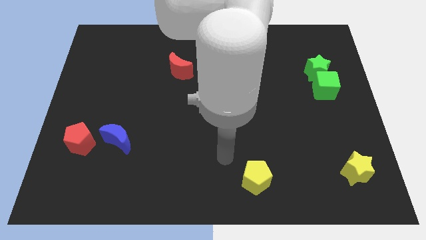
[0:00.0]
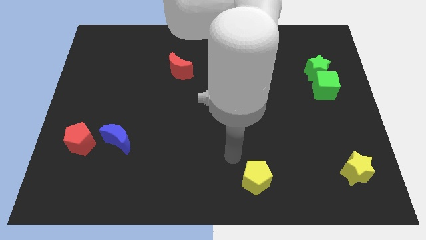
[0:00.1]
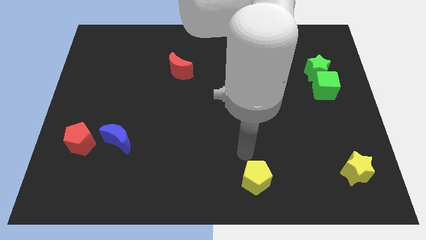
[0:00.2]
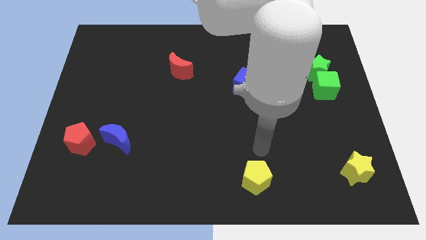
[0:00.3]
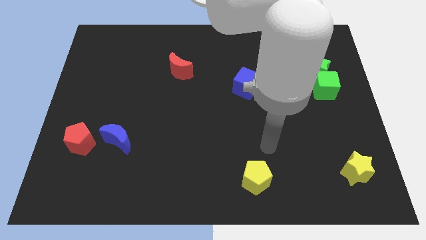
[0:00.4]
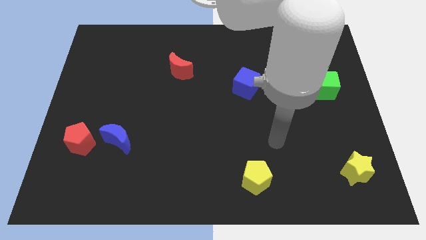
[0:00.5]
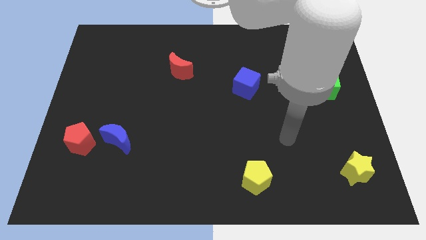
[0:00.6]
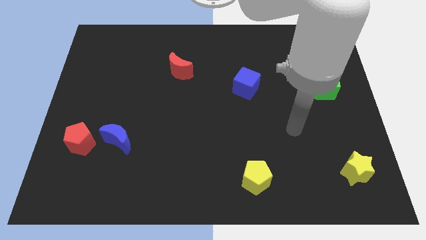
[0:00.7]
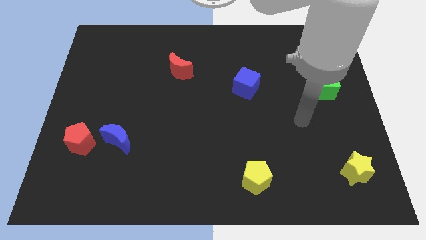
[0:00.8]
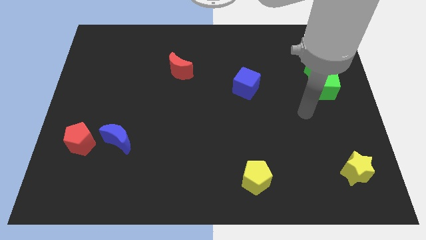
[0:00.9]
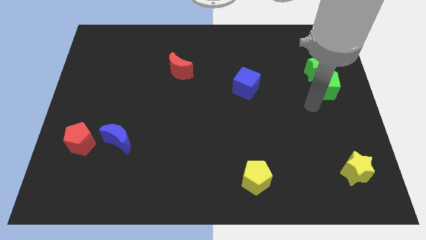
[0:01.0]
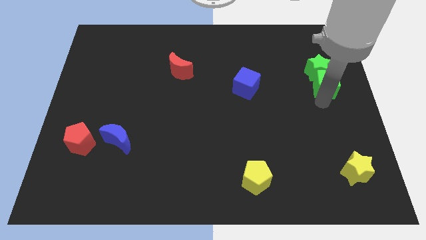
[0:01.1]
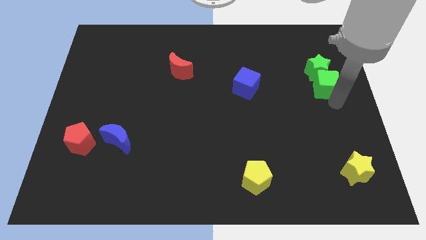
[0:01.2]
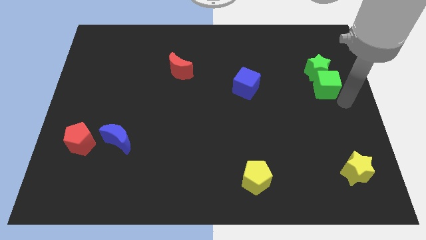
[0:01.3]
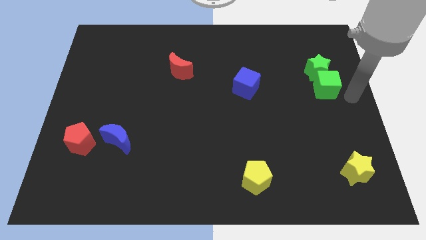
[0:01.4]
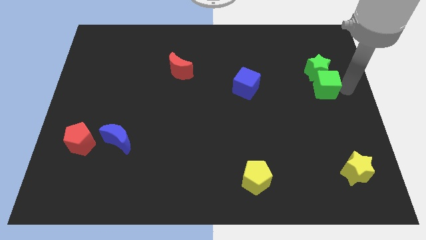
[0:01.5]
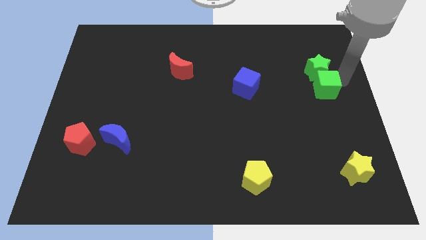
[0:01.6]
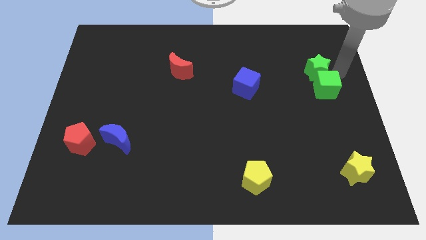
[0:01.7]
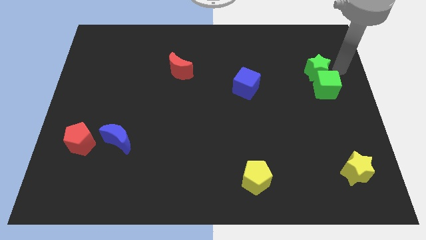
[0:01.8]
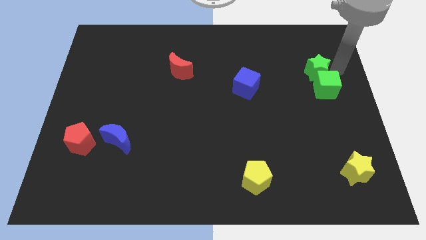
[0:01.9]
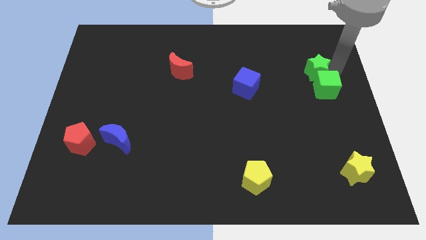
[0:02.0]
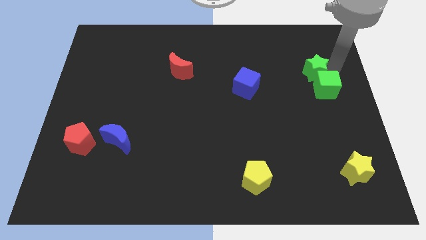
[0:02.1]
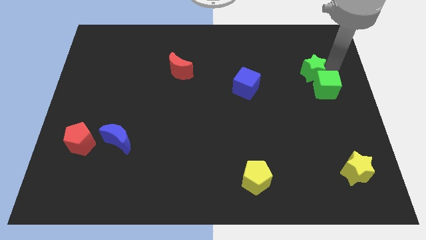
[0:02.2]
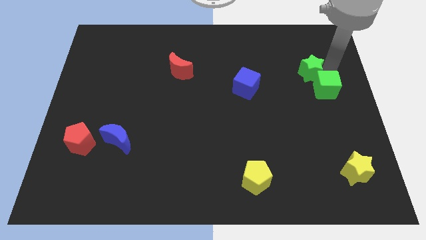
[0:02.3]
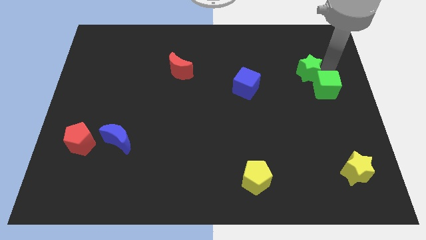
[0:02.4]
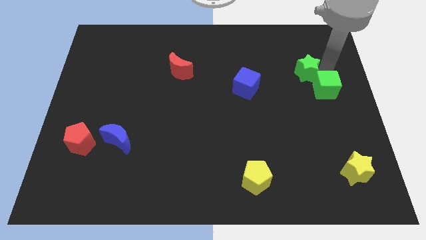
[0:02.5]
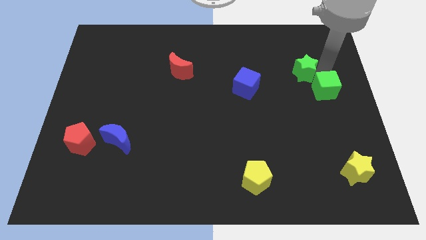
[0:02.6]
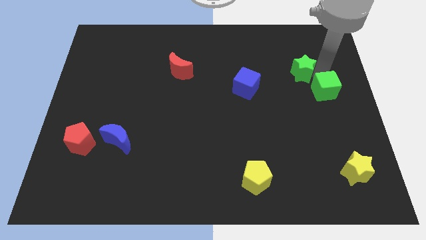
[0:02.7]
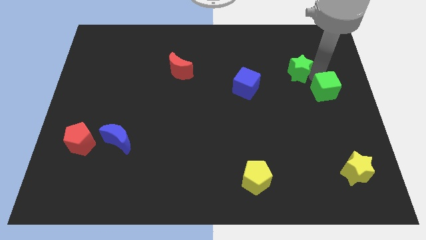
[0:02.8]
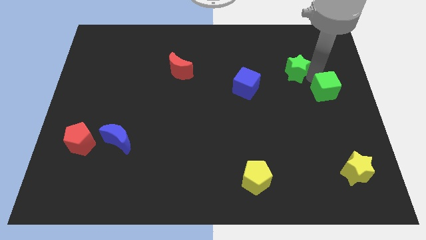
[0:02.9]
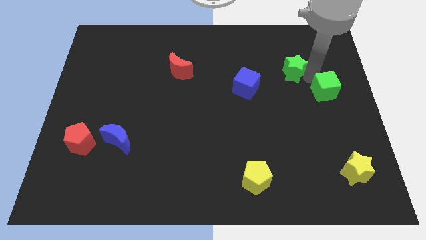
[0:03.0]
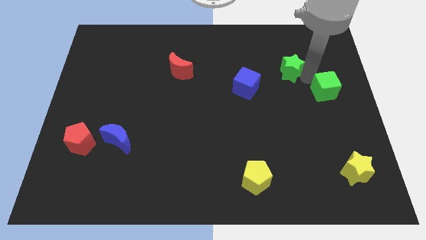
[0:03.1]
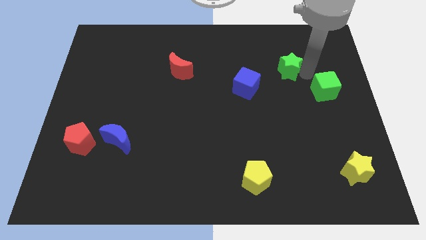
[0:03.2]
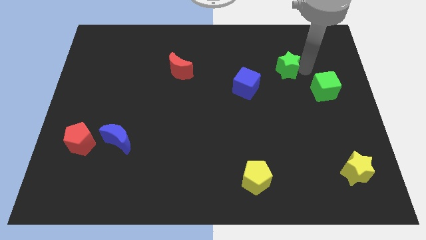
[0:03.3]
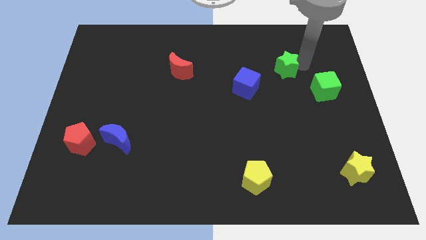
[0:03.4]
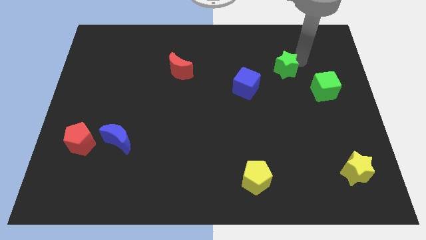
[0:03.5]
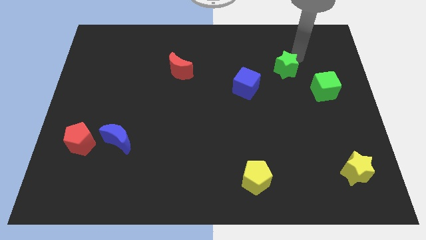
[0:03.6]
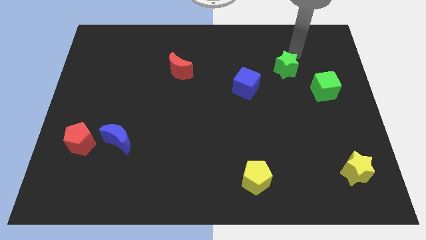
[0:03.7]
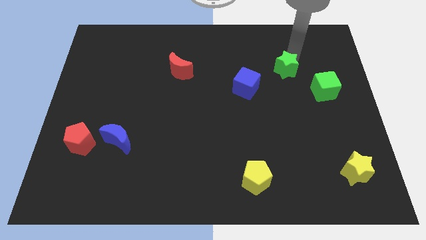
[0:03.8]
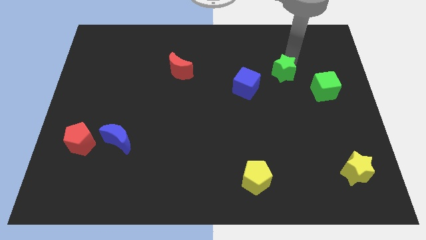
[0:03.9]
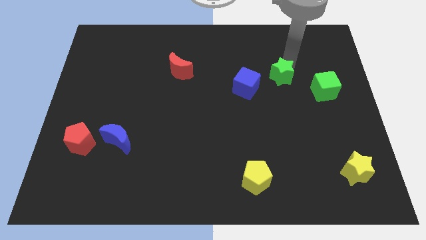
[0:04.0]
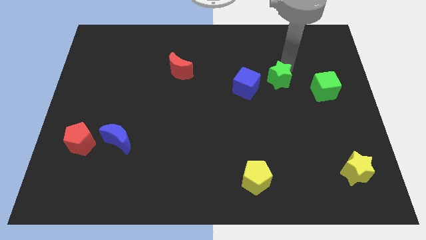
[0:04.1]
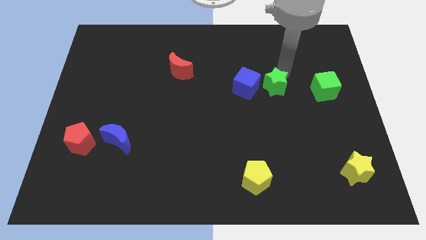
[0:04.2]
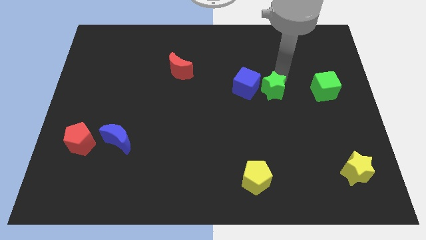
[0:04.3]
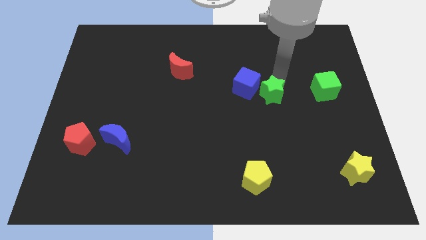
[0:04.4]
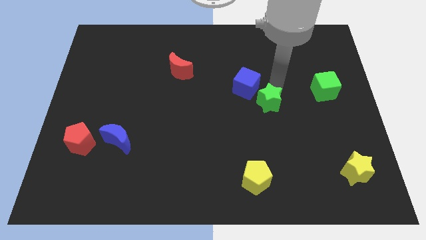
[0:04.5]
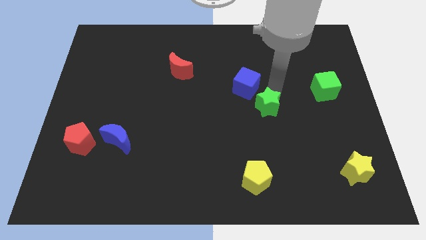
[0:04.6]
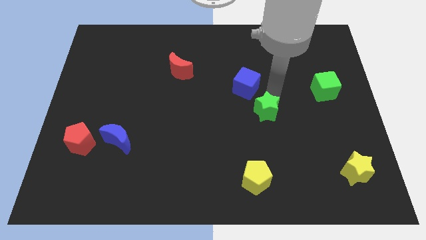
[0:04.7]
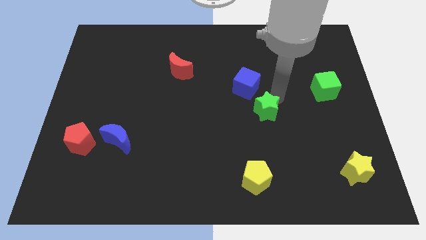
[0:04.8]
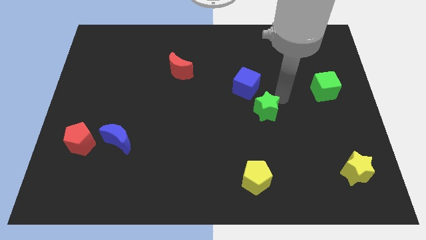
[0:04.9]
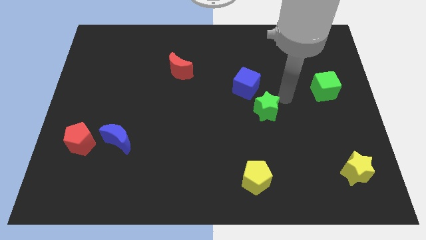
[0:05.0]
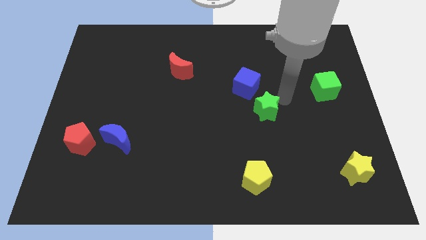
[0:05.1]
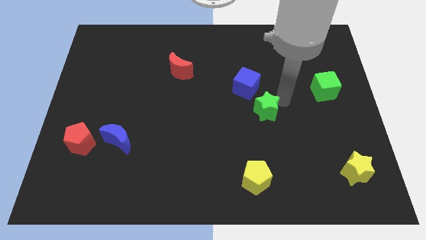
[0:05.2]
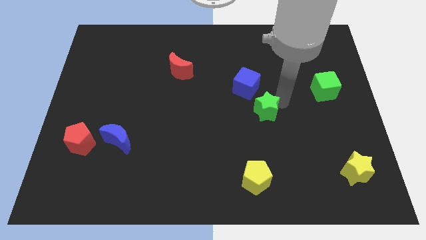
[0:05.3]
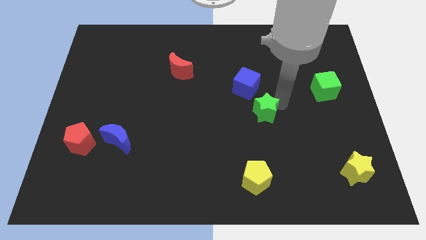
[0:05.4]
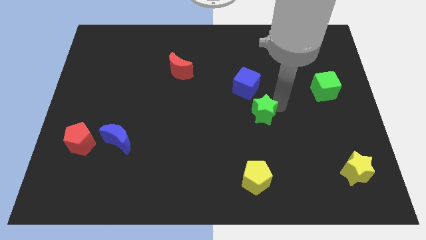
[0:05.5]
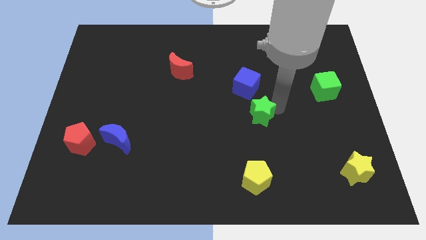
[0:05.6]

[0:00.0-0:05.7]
slide the green star down and then to the left

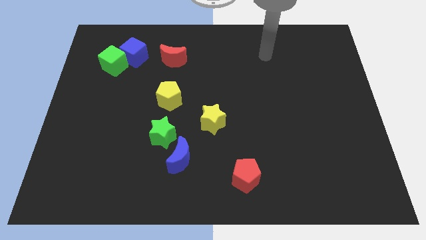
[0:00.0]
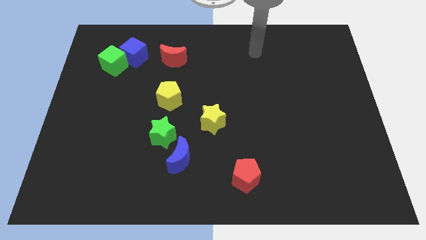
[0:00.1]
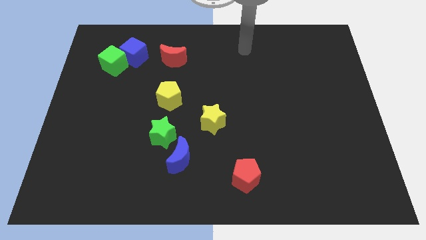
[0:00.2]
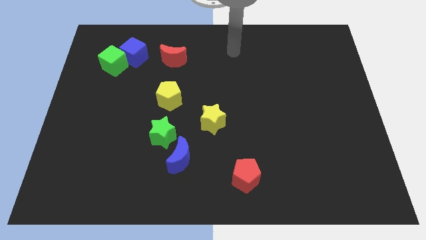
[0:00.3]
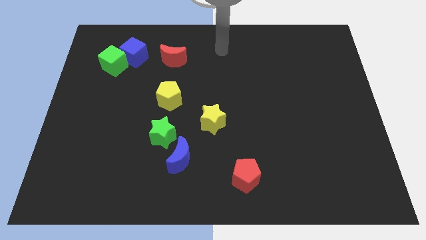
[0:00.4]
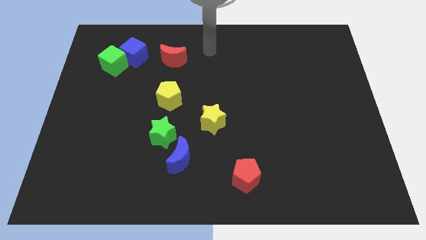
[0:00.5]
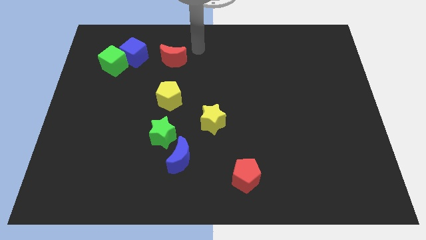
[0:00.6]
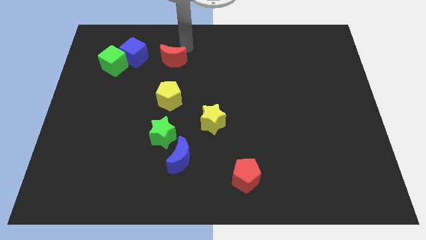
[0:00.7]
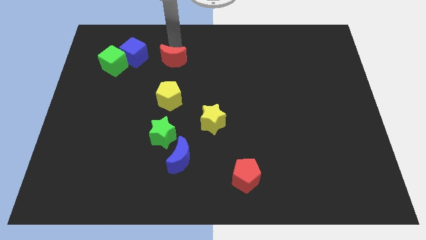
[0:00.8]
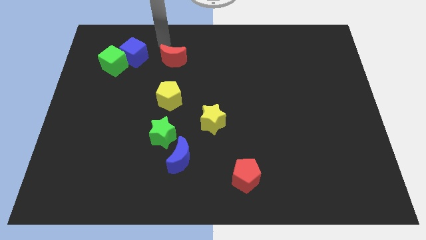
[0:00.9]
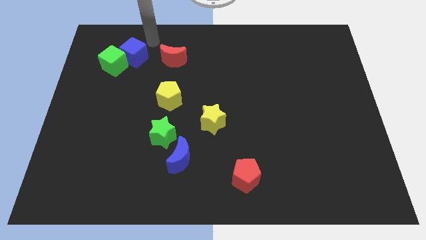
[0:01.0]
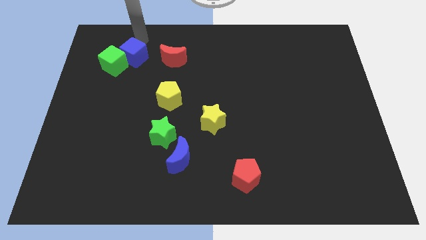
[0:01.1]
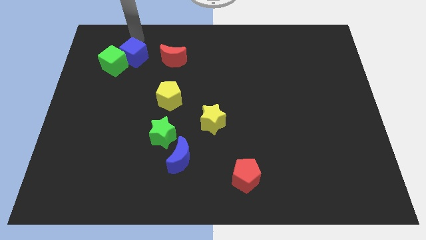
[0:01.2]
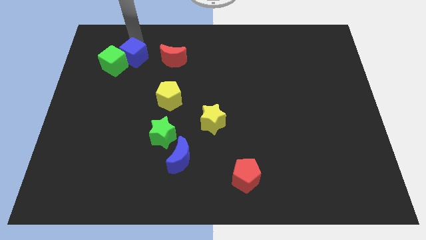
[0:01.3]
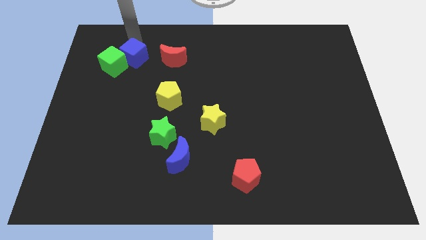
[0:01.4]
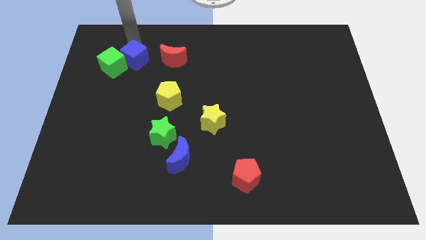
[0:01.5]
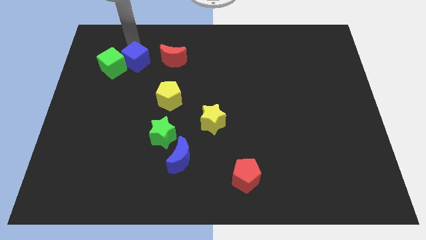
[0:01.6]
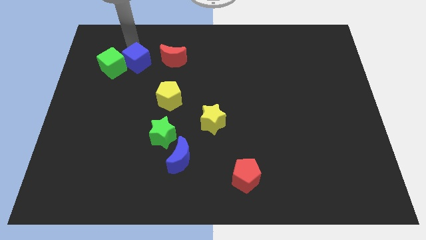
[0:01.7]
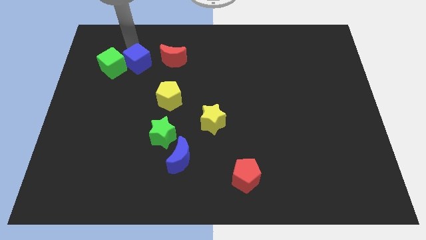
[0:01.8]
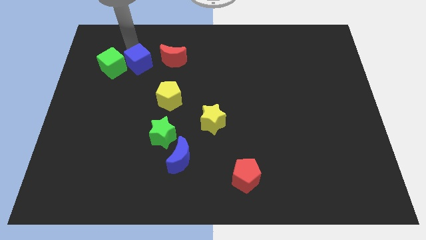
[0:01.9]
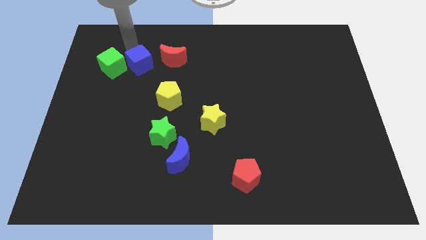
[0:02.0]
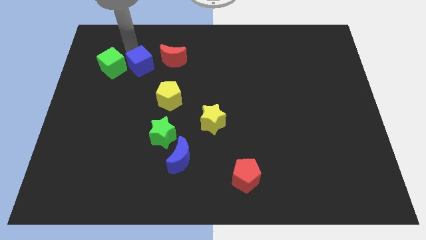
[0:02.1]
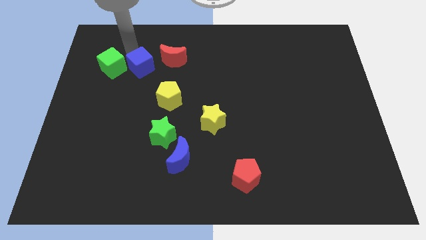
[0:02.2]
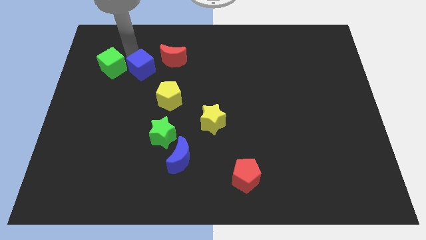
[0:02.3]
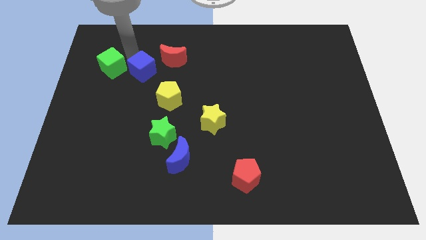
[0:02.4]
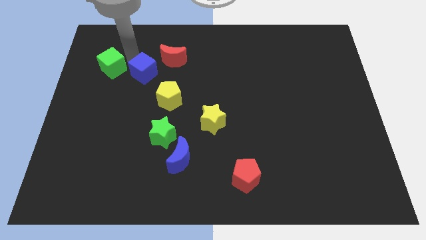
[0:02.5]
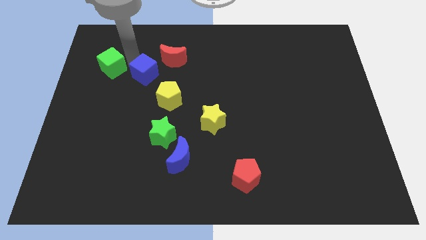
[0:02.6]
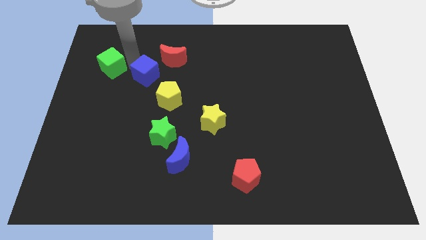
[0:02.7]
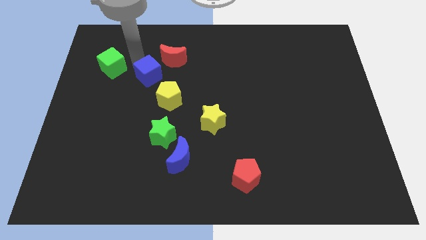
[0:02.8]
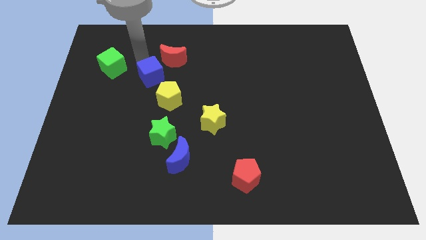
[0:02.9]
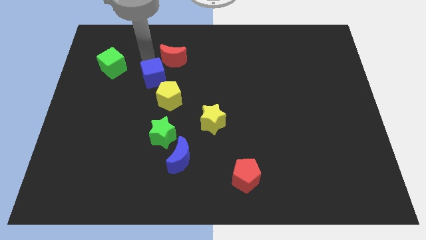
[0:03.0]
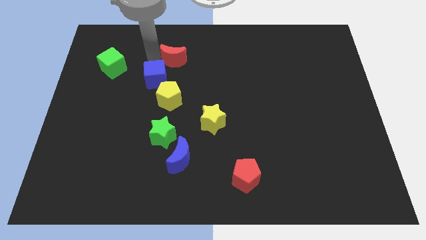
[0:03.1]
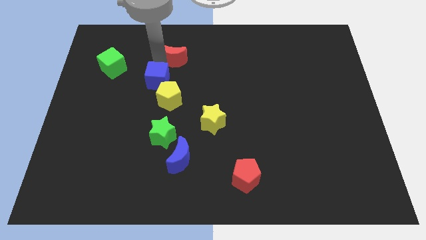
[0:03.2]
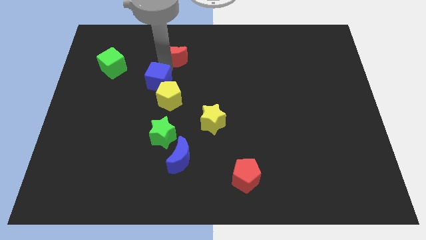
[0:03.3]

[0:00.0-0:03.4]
slide the blue cube slightly down
